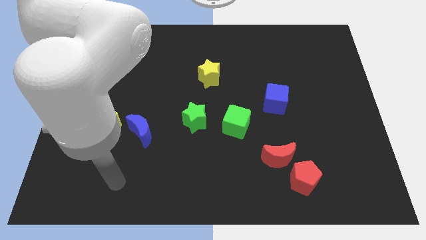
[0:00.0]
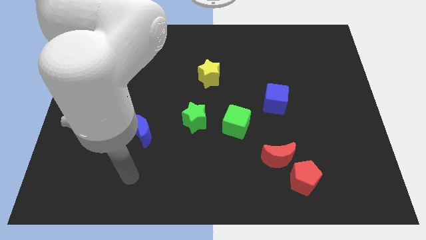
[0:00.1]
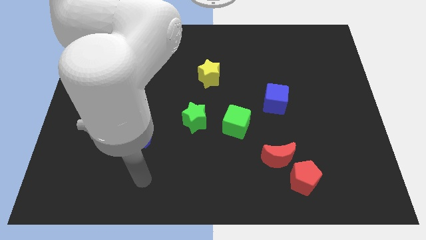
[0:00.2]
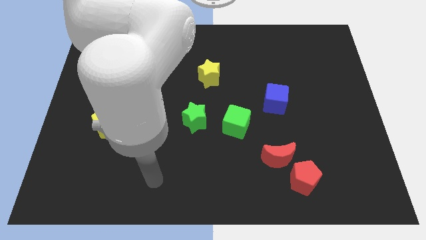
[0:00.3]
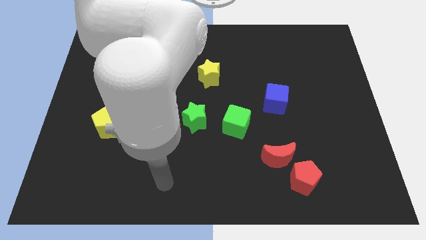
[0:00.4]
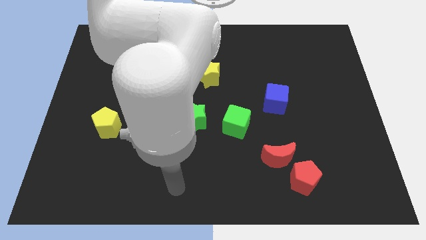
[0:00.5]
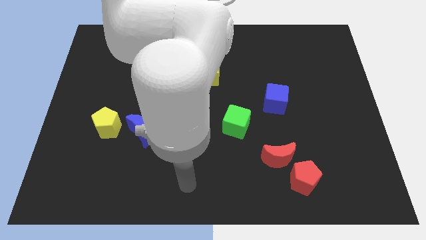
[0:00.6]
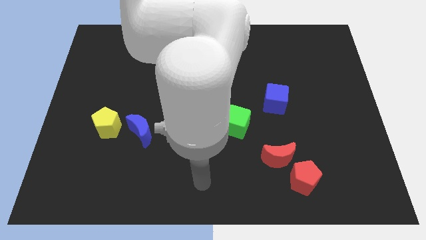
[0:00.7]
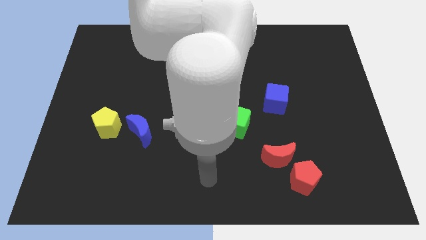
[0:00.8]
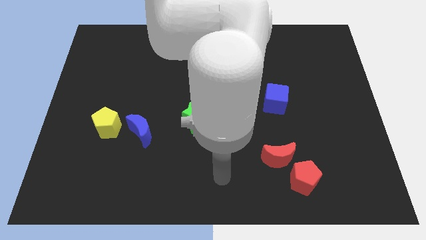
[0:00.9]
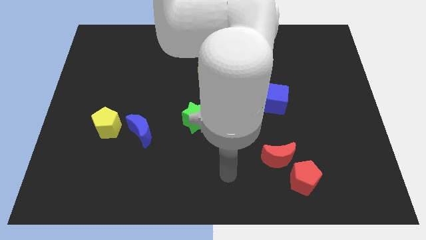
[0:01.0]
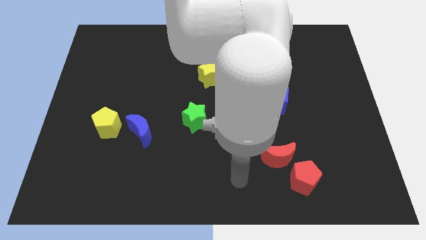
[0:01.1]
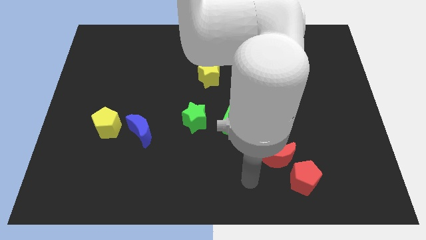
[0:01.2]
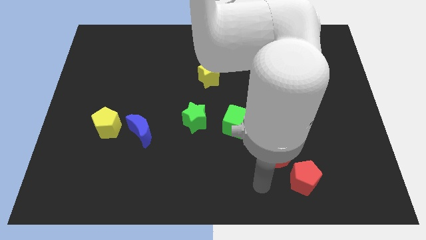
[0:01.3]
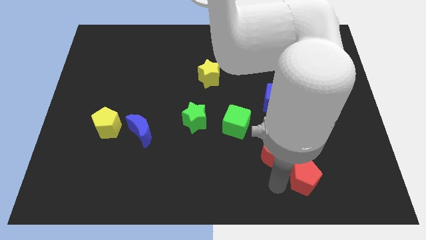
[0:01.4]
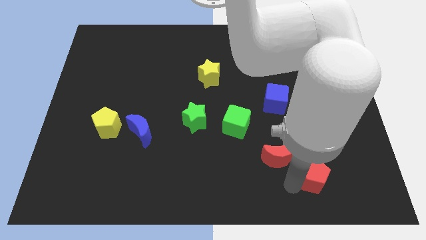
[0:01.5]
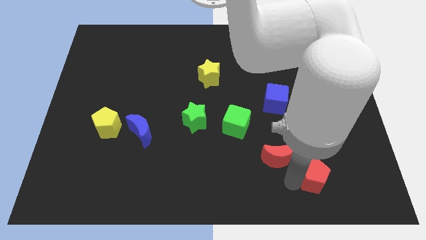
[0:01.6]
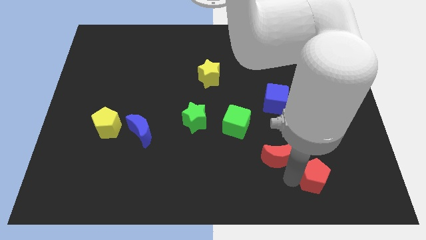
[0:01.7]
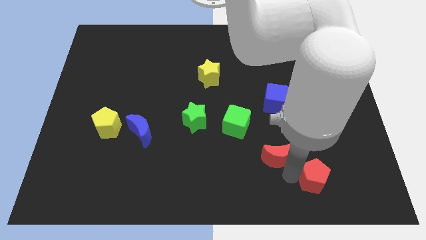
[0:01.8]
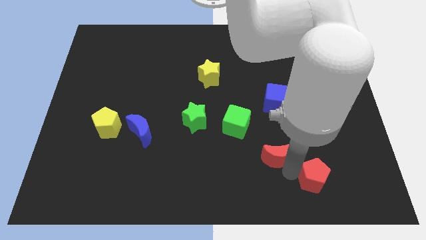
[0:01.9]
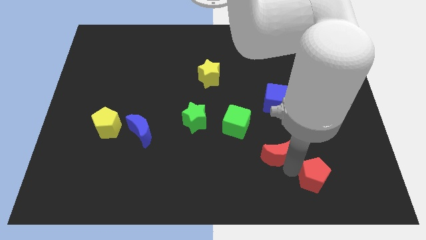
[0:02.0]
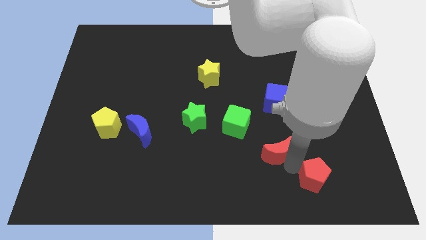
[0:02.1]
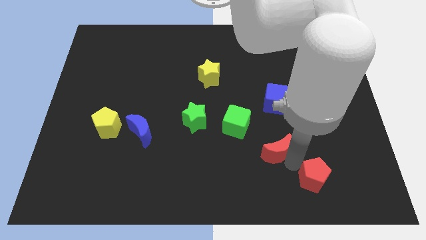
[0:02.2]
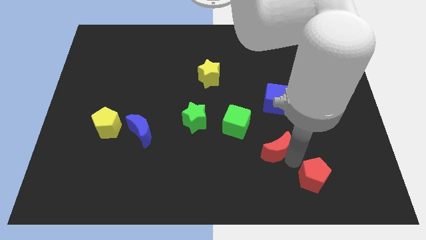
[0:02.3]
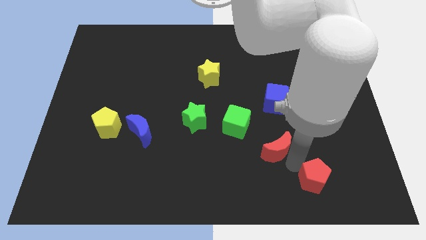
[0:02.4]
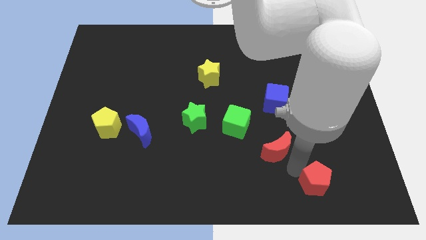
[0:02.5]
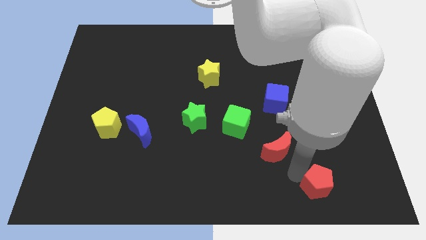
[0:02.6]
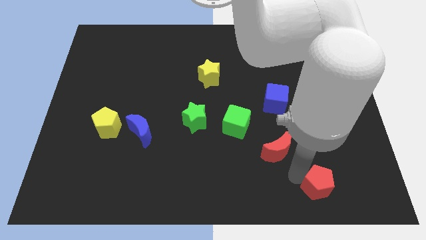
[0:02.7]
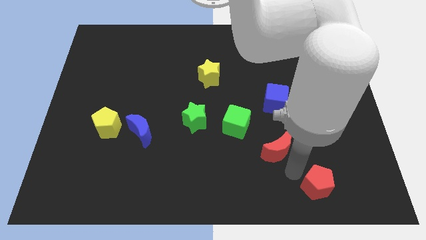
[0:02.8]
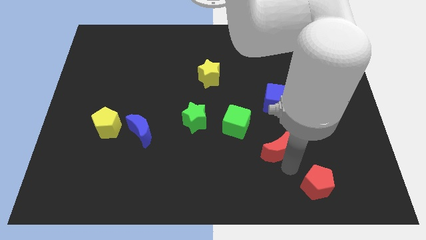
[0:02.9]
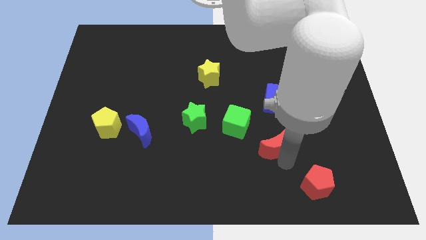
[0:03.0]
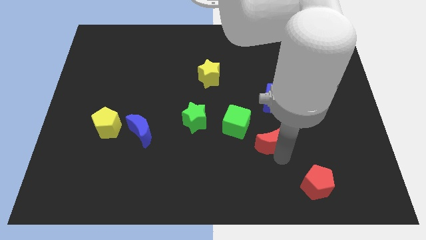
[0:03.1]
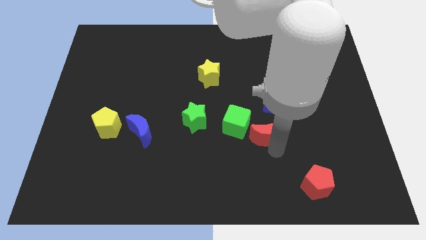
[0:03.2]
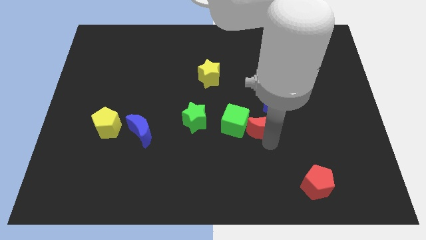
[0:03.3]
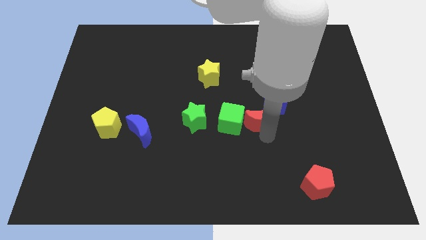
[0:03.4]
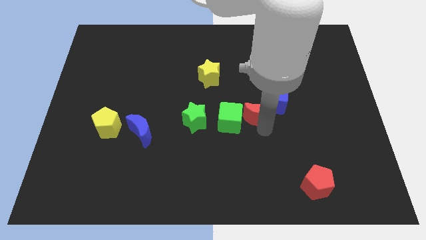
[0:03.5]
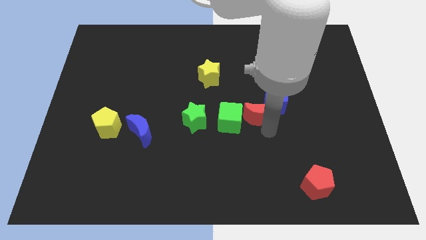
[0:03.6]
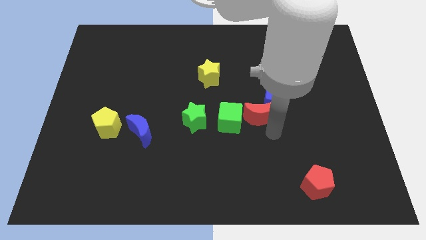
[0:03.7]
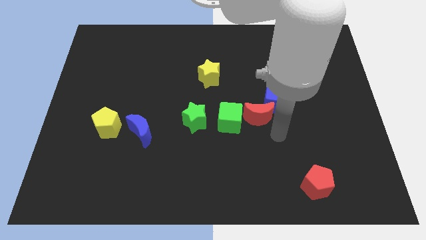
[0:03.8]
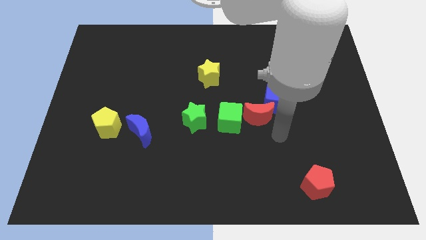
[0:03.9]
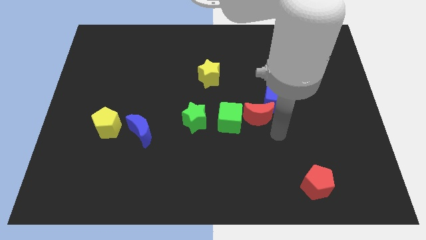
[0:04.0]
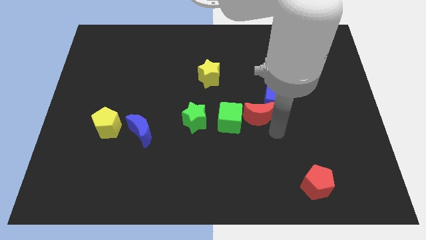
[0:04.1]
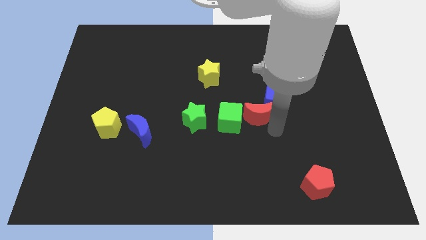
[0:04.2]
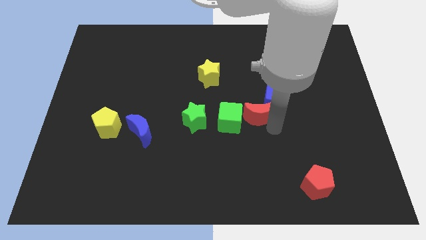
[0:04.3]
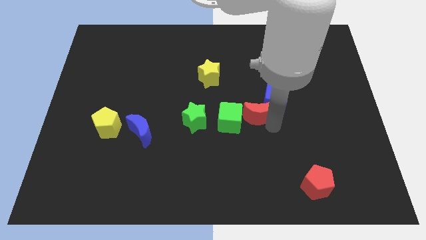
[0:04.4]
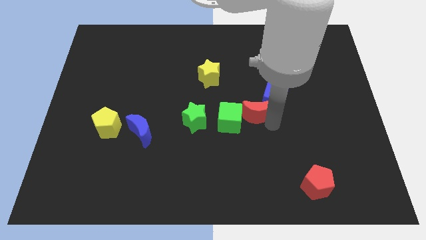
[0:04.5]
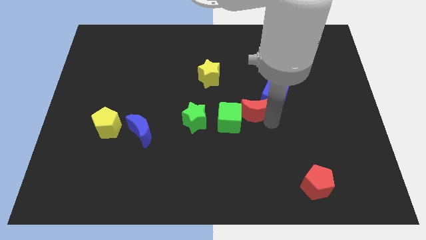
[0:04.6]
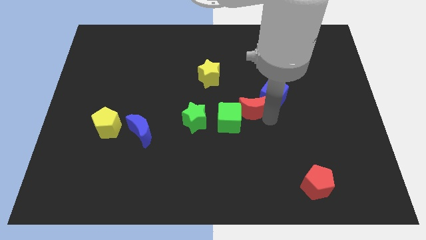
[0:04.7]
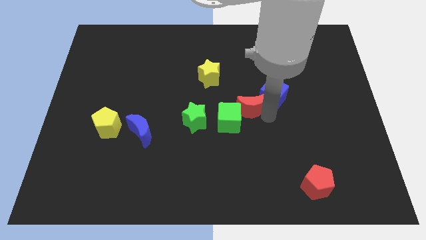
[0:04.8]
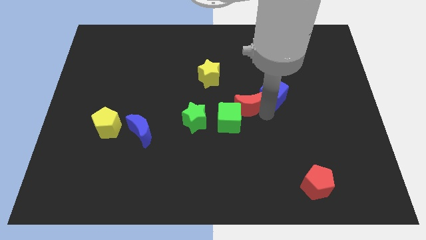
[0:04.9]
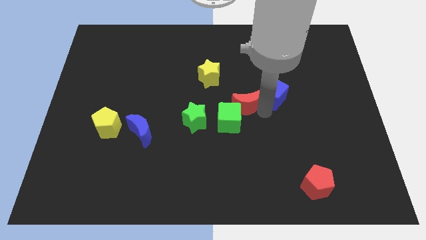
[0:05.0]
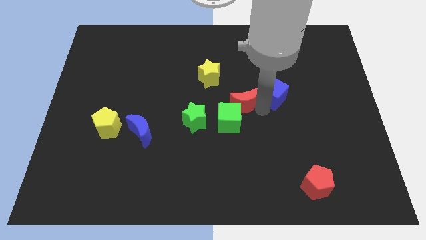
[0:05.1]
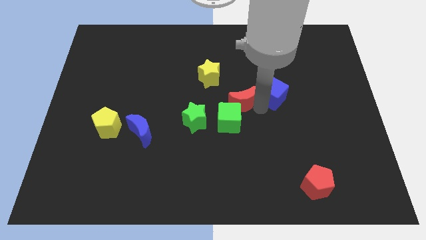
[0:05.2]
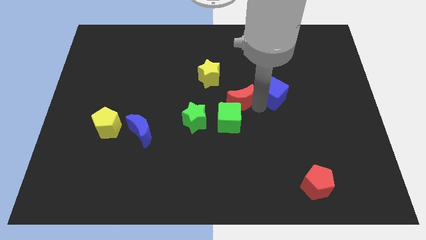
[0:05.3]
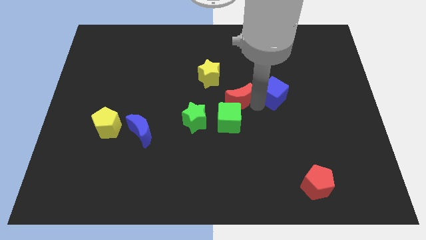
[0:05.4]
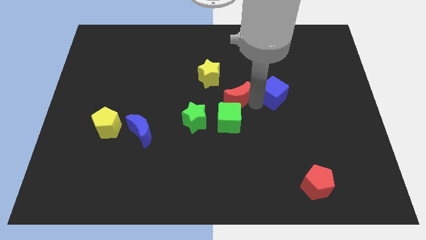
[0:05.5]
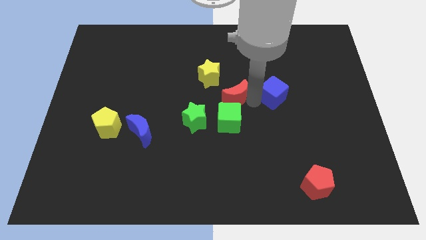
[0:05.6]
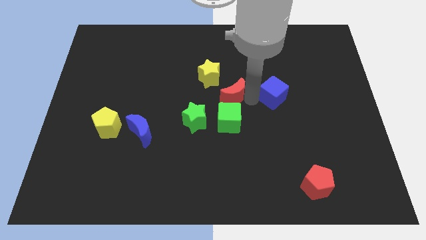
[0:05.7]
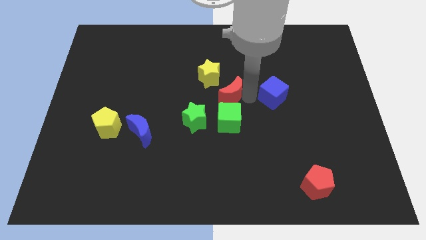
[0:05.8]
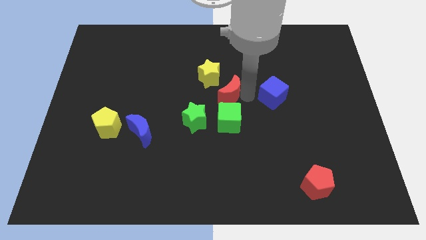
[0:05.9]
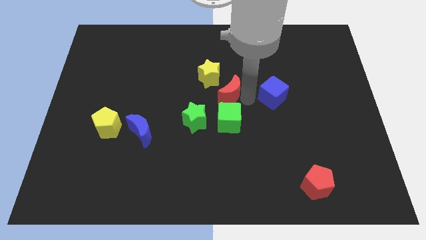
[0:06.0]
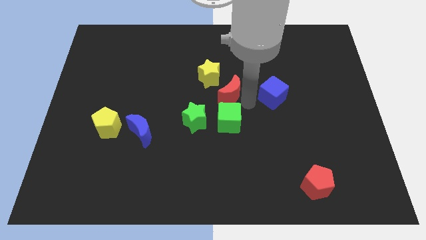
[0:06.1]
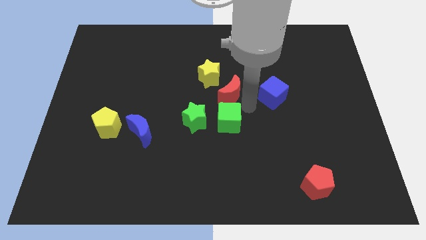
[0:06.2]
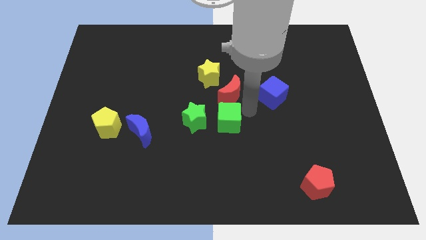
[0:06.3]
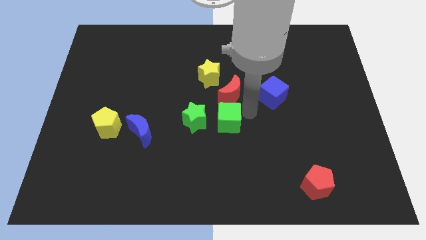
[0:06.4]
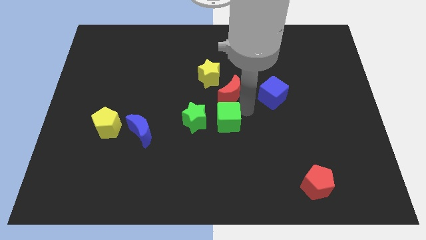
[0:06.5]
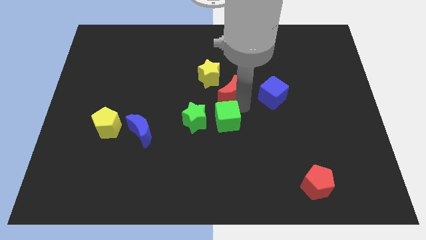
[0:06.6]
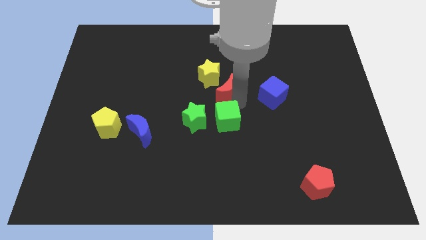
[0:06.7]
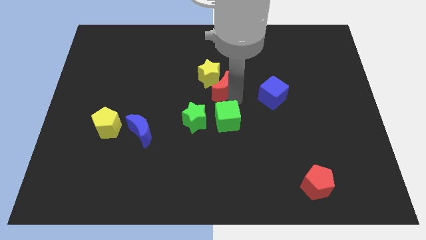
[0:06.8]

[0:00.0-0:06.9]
slide the red moon to the yellow star
